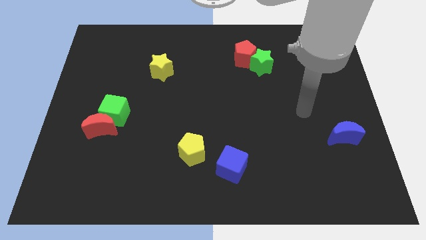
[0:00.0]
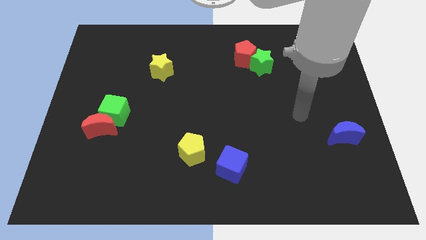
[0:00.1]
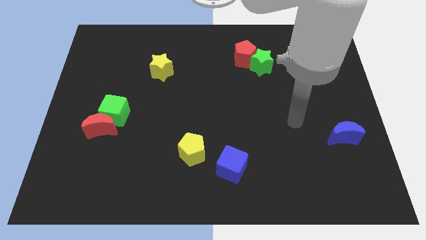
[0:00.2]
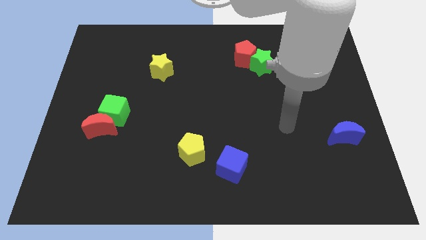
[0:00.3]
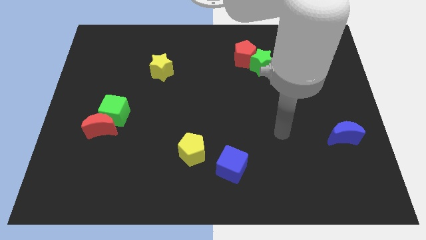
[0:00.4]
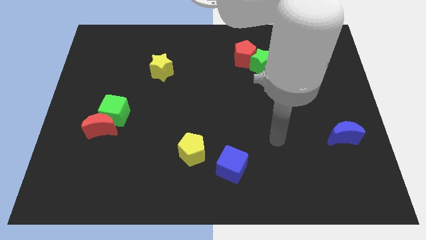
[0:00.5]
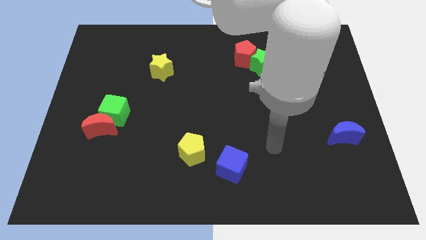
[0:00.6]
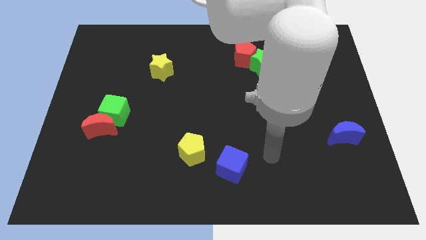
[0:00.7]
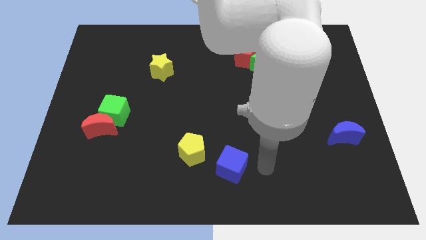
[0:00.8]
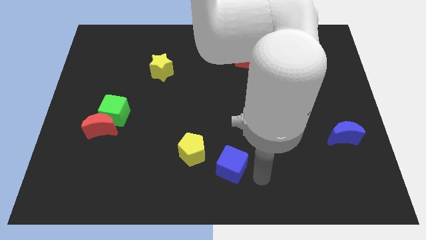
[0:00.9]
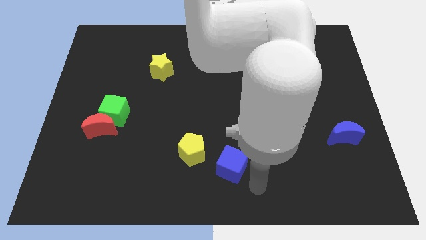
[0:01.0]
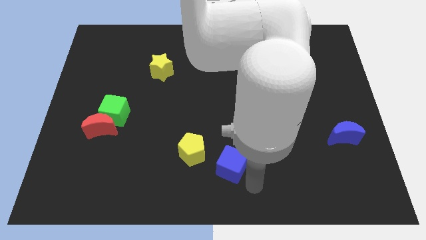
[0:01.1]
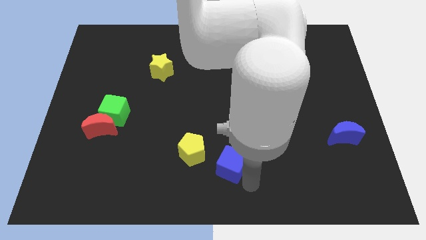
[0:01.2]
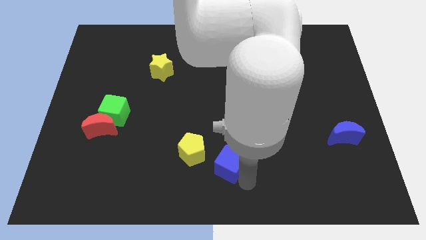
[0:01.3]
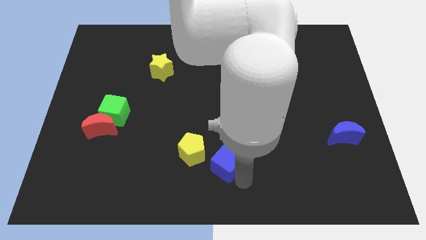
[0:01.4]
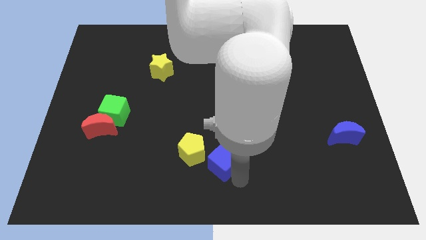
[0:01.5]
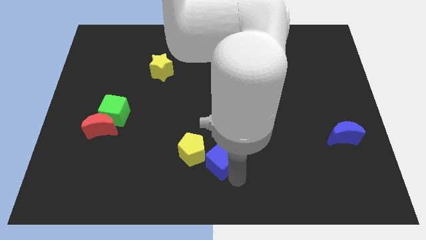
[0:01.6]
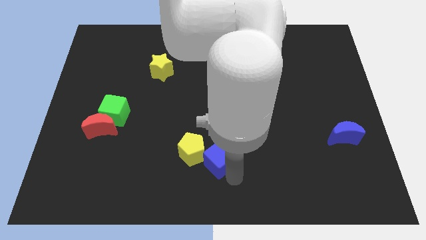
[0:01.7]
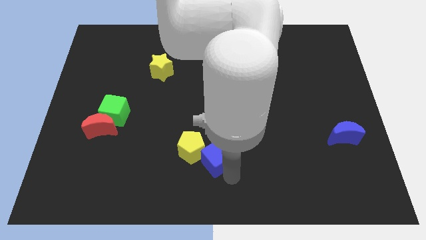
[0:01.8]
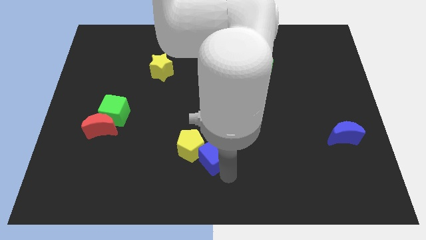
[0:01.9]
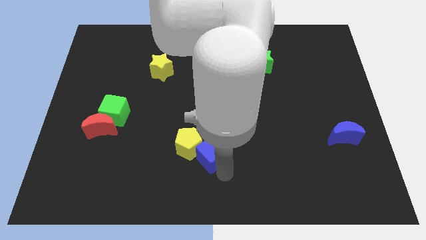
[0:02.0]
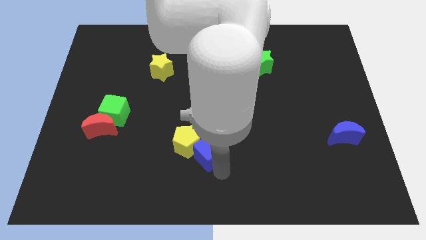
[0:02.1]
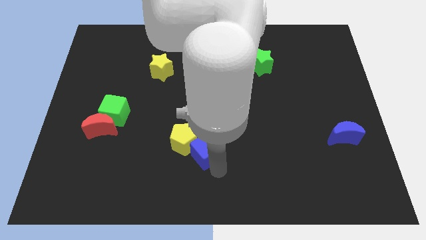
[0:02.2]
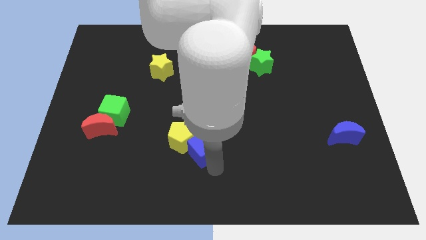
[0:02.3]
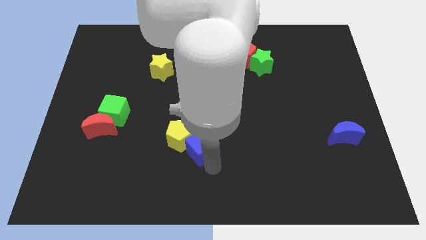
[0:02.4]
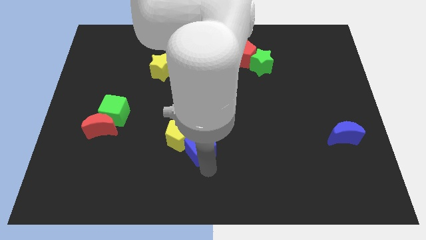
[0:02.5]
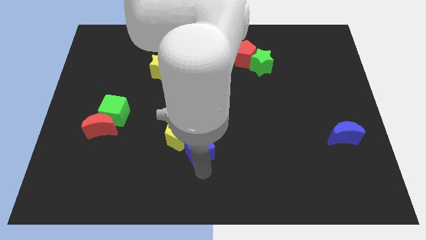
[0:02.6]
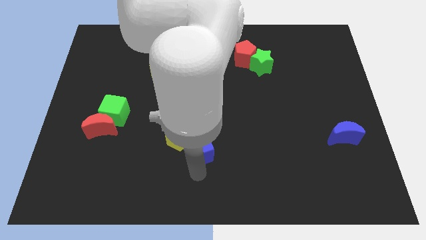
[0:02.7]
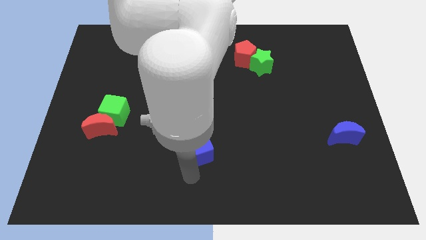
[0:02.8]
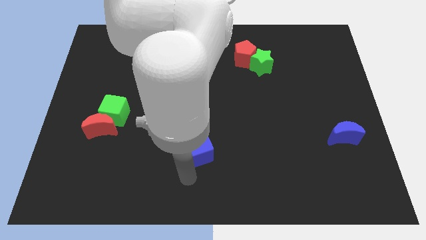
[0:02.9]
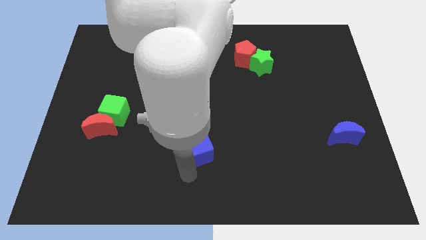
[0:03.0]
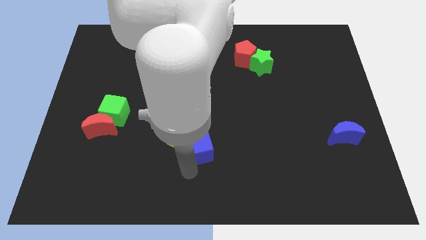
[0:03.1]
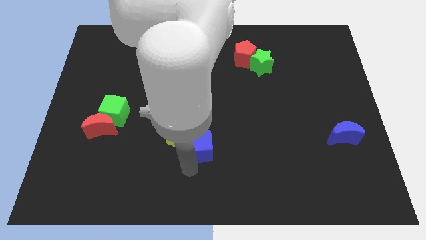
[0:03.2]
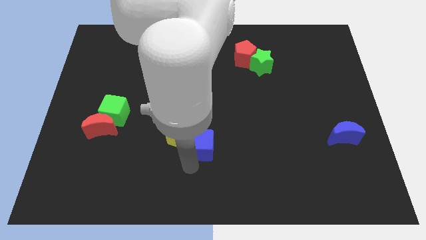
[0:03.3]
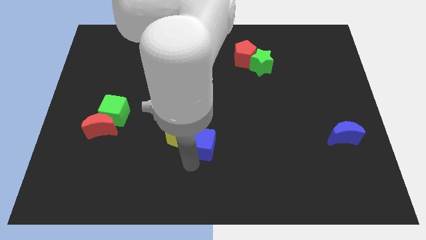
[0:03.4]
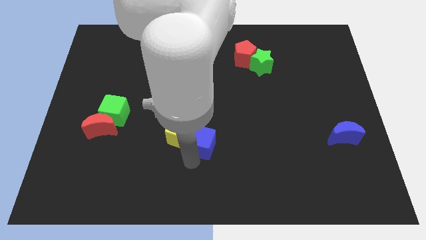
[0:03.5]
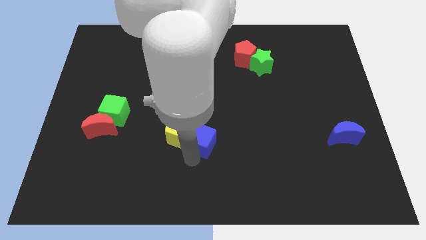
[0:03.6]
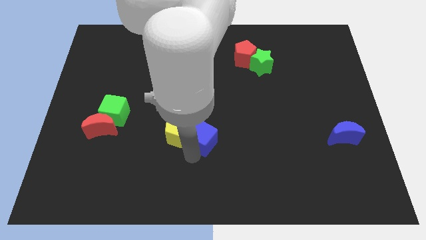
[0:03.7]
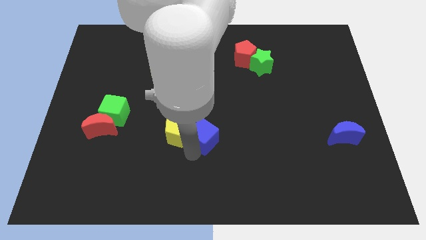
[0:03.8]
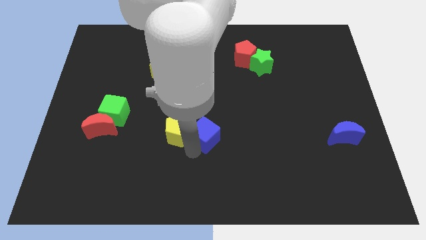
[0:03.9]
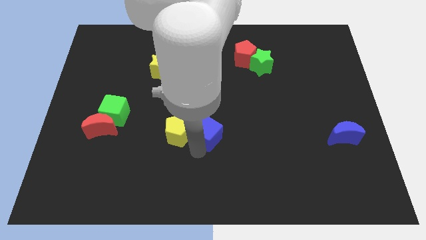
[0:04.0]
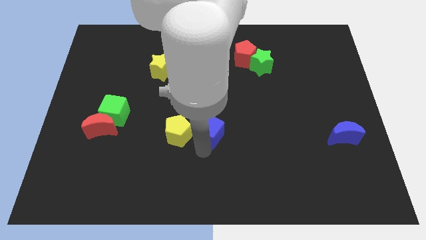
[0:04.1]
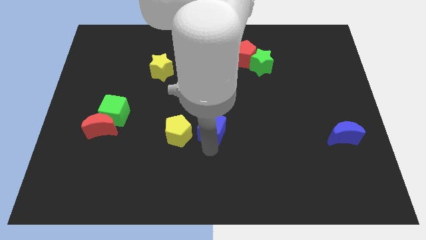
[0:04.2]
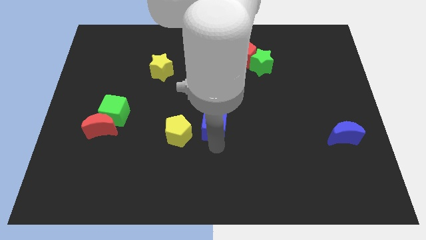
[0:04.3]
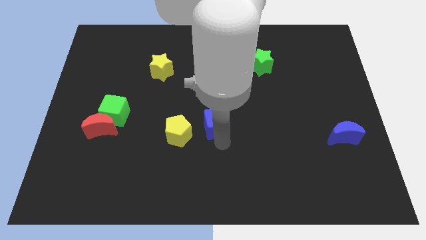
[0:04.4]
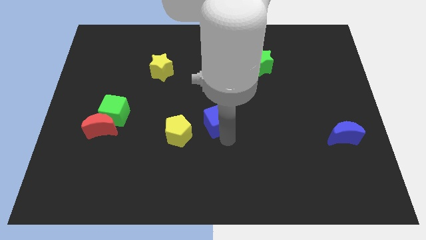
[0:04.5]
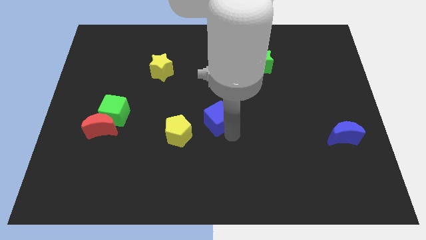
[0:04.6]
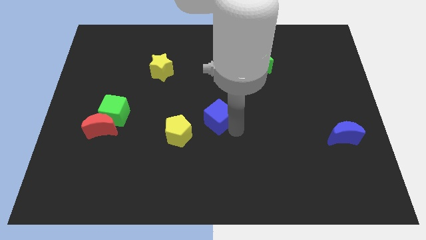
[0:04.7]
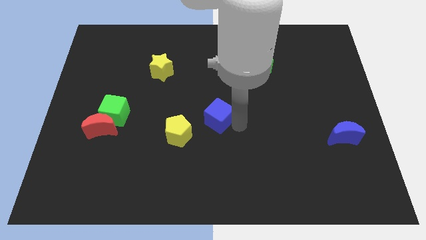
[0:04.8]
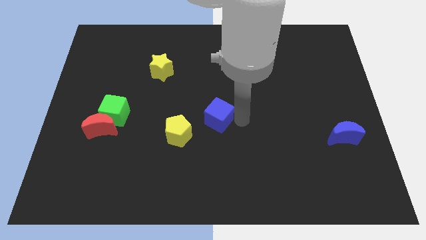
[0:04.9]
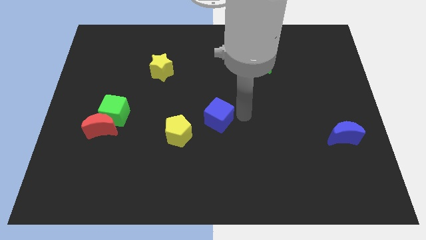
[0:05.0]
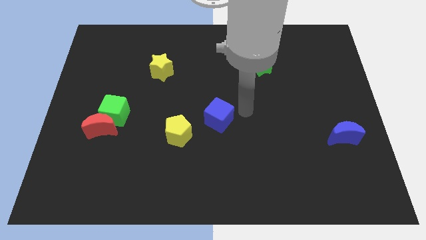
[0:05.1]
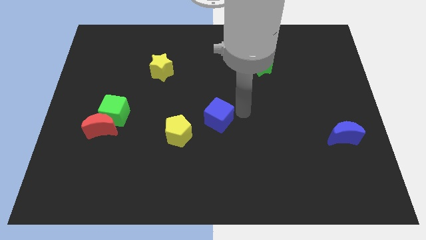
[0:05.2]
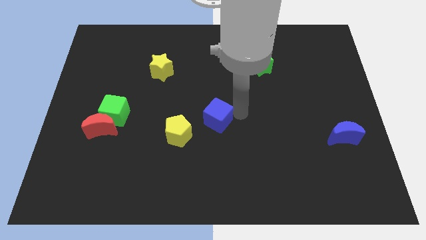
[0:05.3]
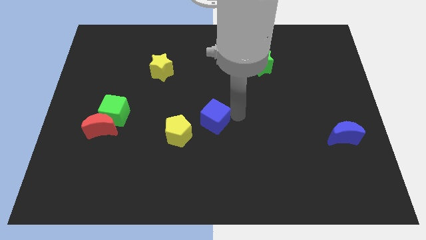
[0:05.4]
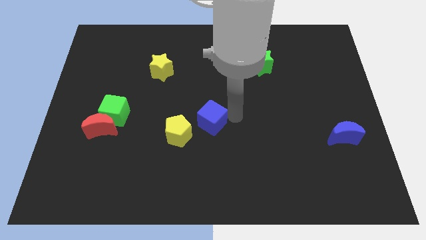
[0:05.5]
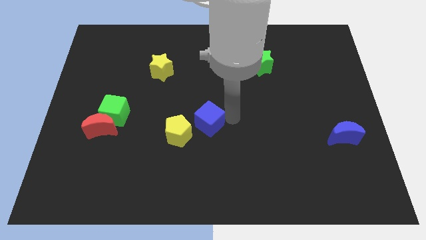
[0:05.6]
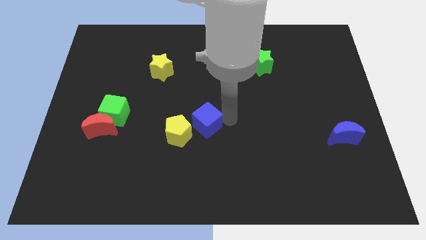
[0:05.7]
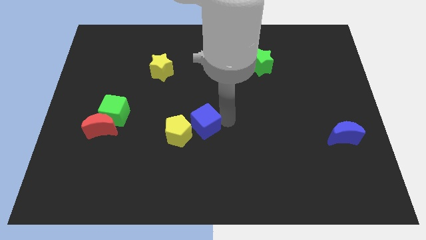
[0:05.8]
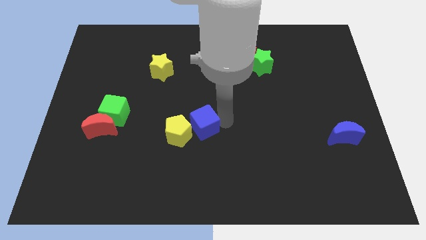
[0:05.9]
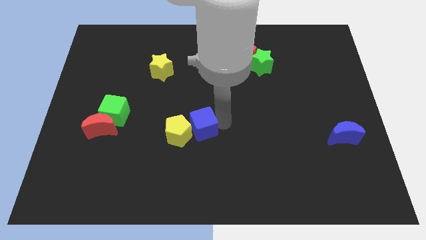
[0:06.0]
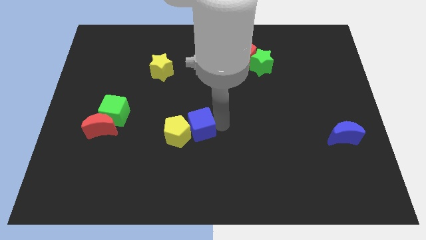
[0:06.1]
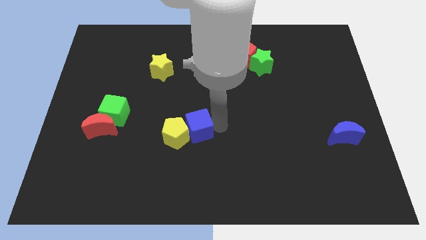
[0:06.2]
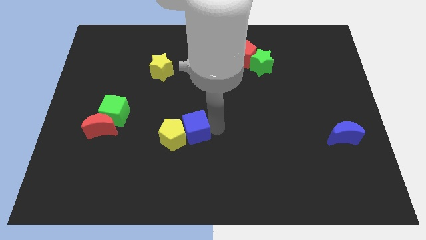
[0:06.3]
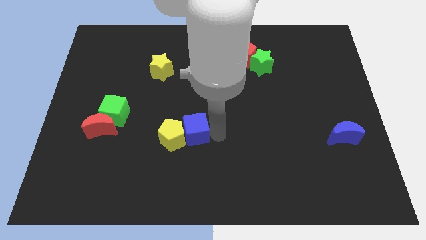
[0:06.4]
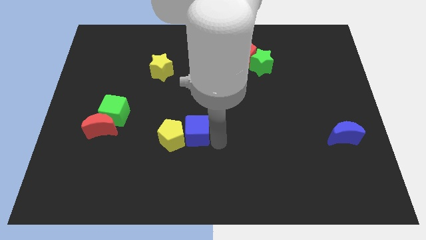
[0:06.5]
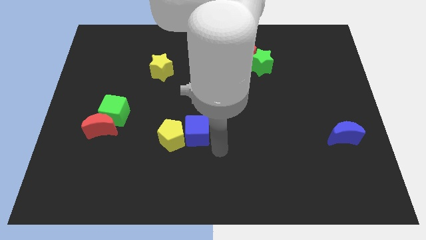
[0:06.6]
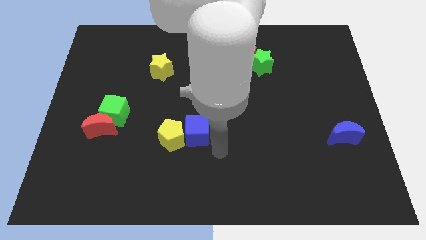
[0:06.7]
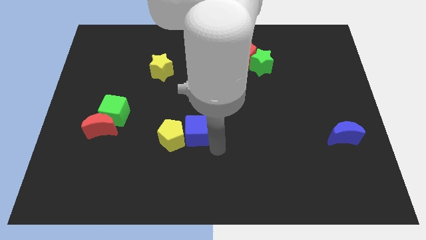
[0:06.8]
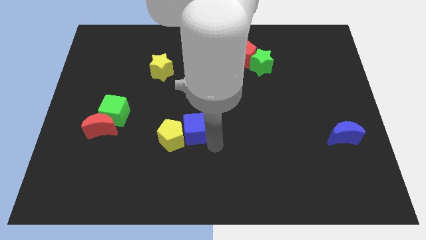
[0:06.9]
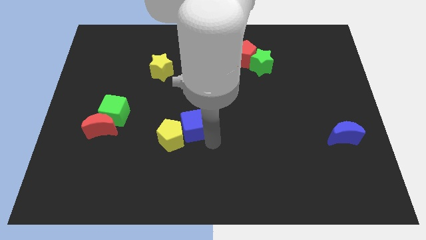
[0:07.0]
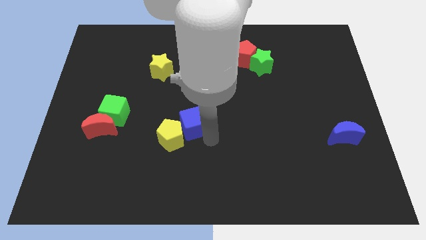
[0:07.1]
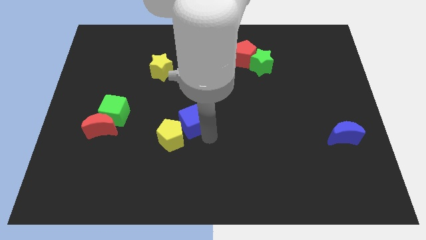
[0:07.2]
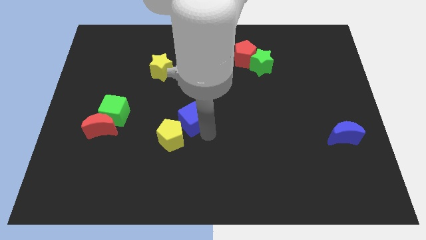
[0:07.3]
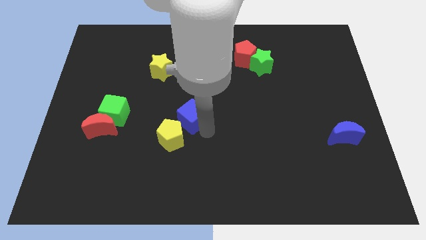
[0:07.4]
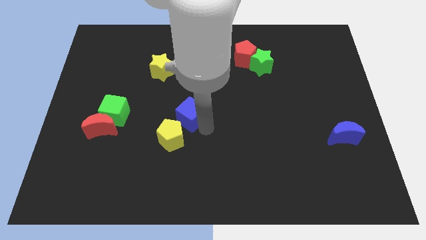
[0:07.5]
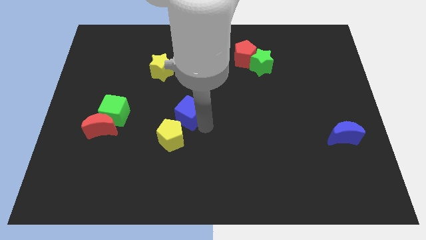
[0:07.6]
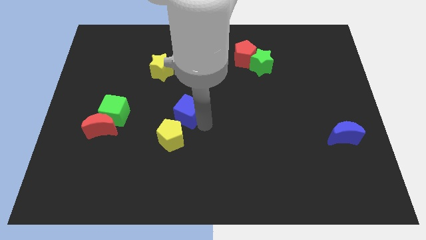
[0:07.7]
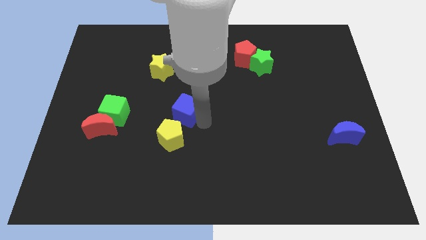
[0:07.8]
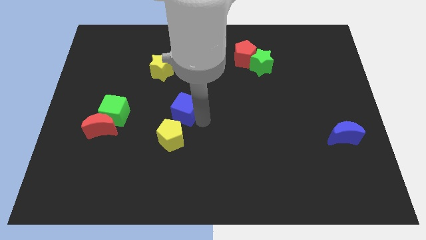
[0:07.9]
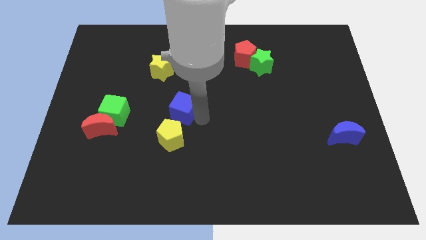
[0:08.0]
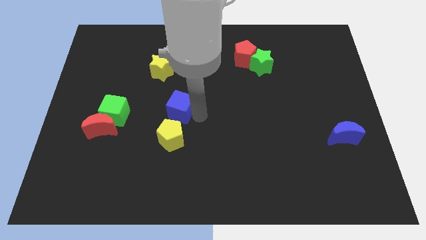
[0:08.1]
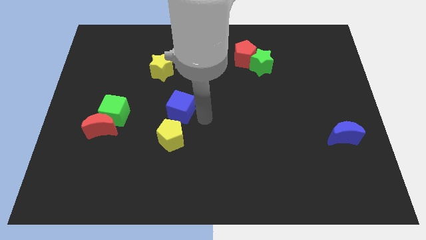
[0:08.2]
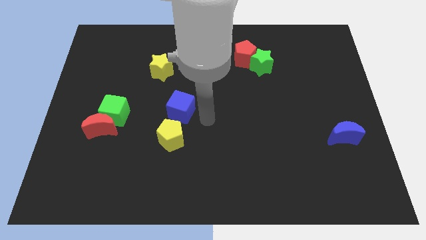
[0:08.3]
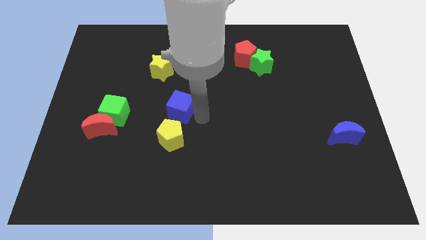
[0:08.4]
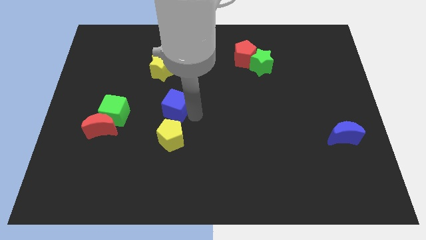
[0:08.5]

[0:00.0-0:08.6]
move the blue cube upwards and to the left diagonally
